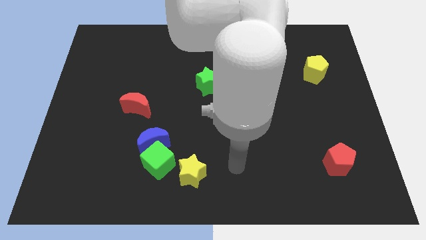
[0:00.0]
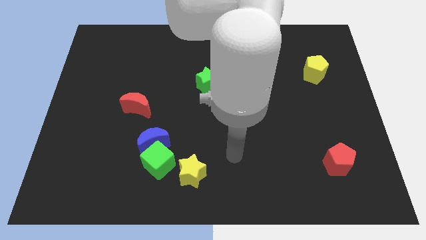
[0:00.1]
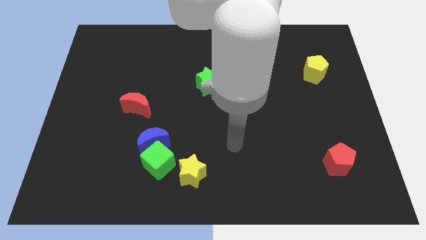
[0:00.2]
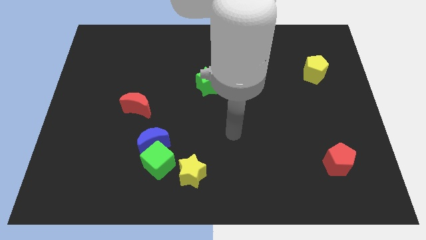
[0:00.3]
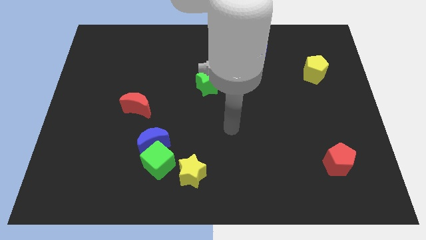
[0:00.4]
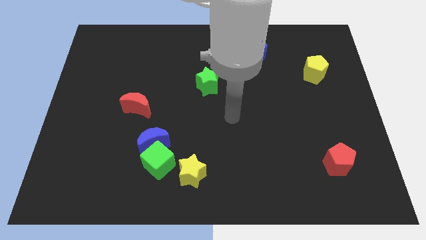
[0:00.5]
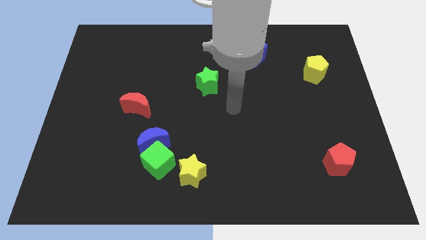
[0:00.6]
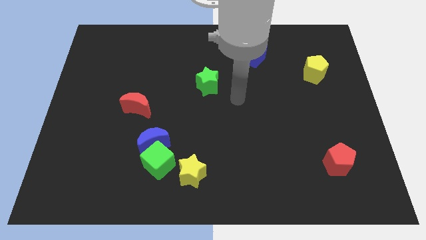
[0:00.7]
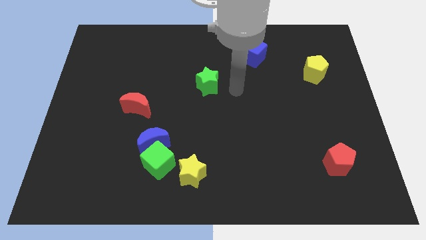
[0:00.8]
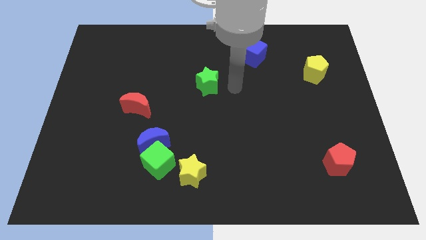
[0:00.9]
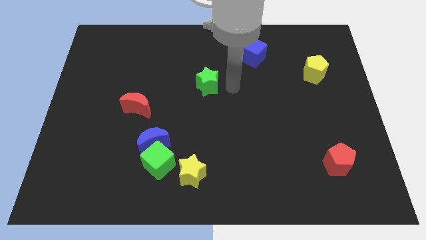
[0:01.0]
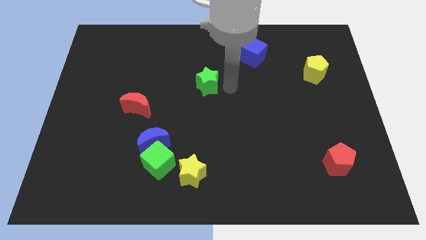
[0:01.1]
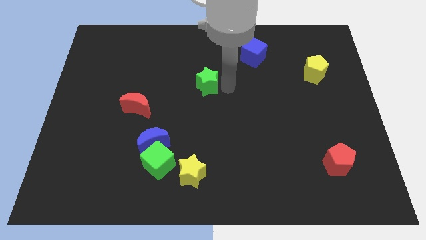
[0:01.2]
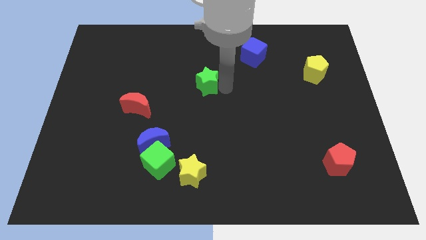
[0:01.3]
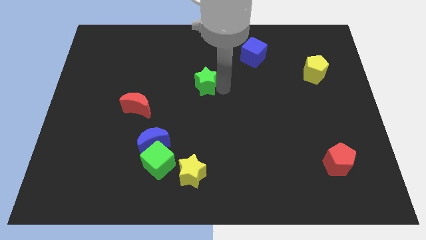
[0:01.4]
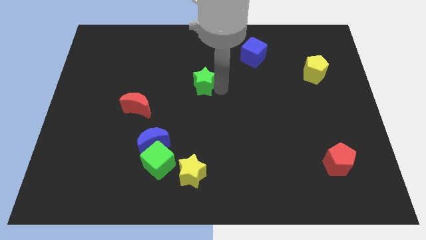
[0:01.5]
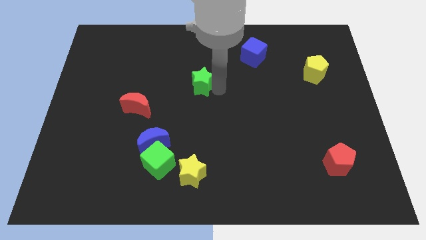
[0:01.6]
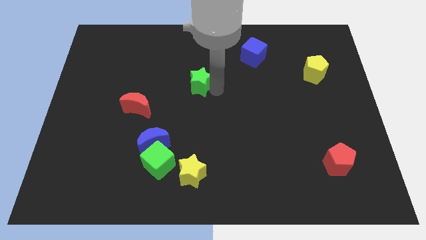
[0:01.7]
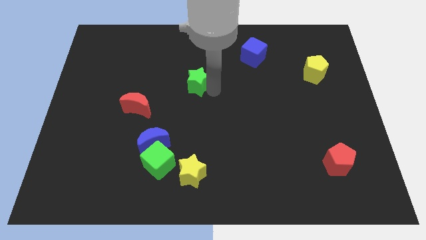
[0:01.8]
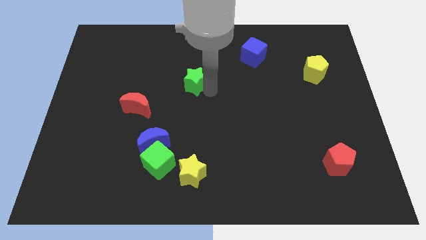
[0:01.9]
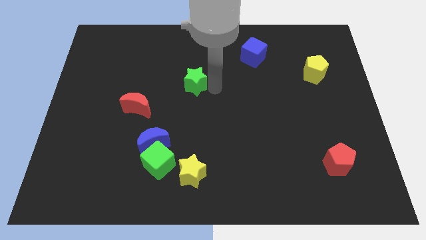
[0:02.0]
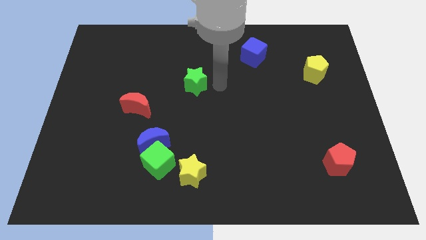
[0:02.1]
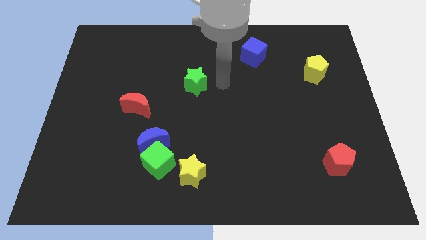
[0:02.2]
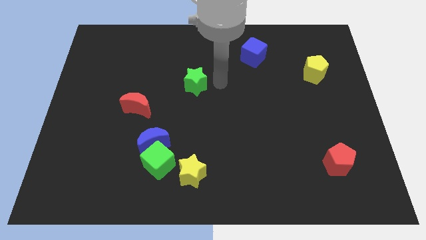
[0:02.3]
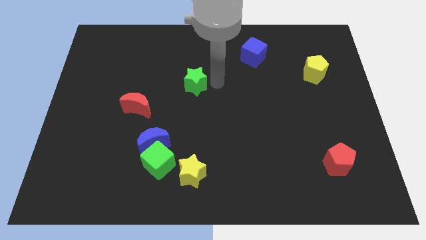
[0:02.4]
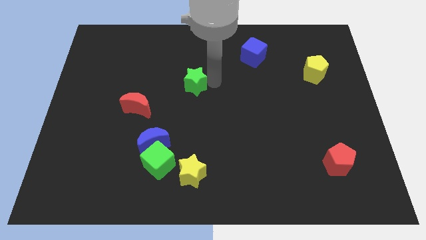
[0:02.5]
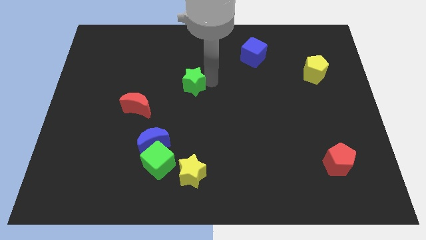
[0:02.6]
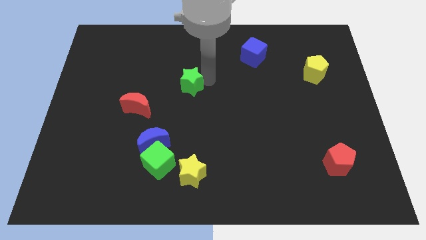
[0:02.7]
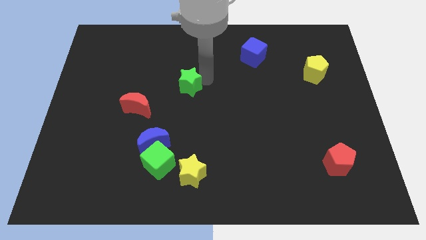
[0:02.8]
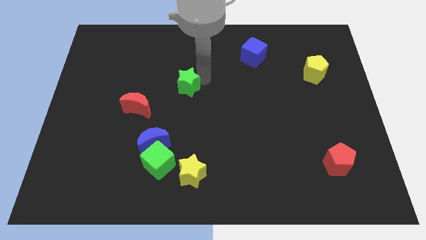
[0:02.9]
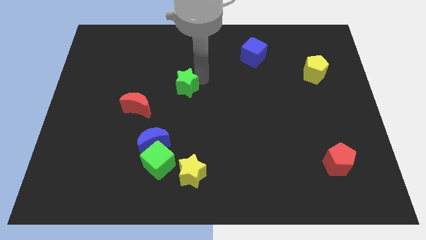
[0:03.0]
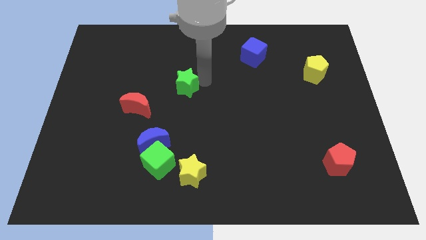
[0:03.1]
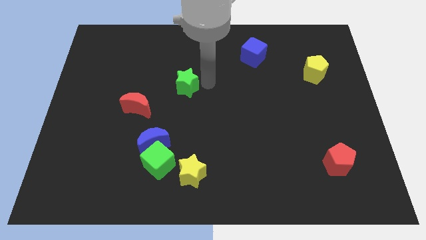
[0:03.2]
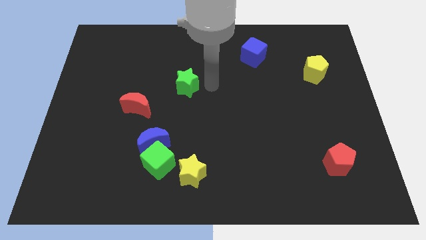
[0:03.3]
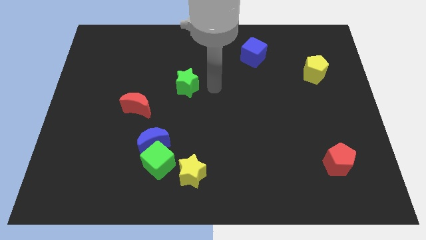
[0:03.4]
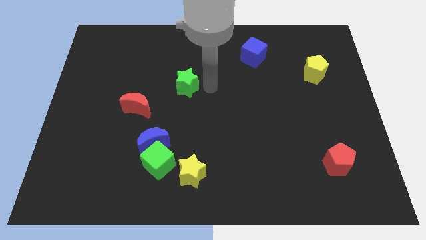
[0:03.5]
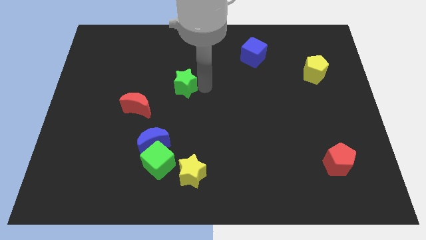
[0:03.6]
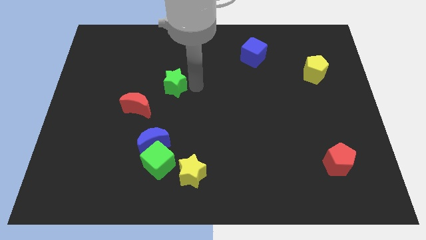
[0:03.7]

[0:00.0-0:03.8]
push the green star to the left a little

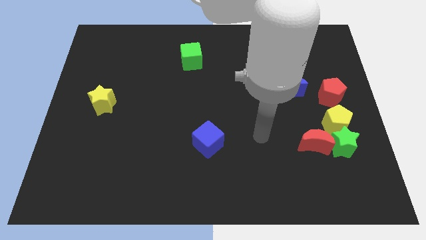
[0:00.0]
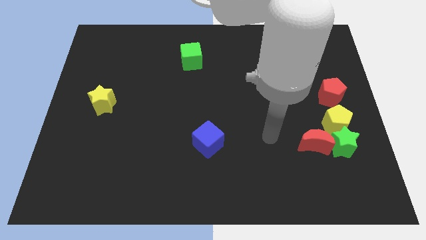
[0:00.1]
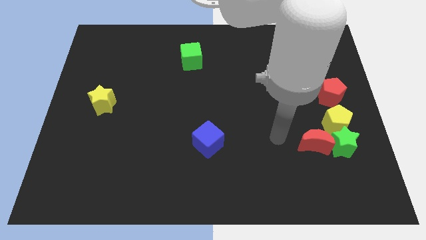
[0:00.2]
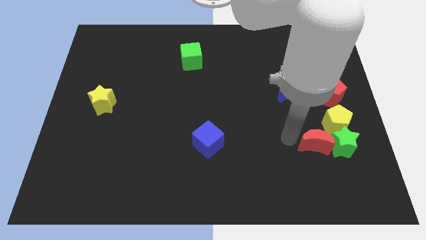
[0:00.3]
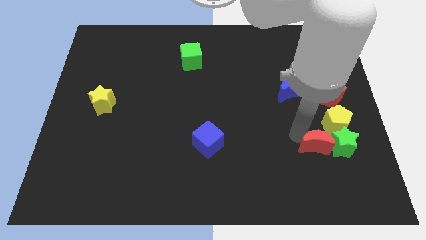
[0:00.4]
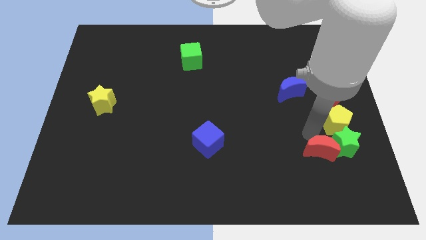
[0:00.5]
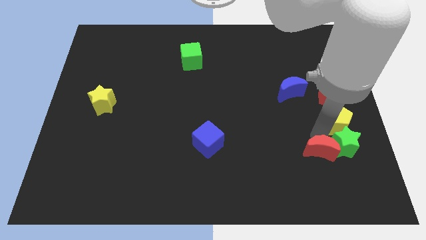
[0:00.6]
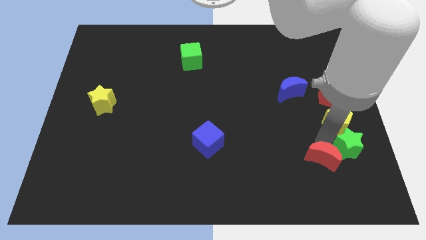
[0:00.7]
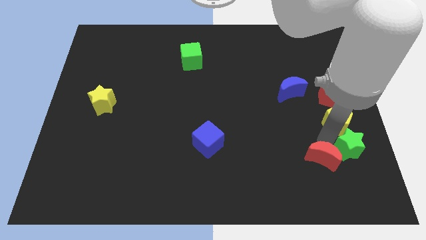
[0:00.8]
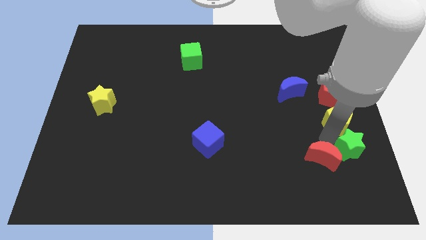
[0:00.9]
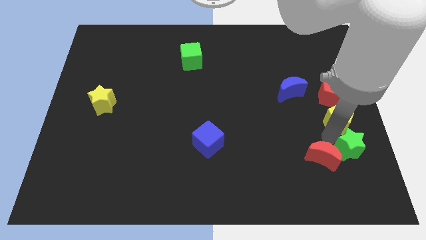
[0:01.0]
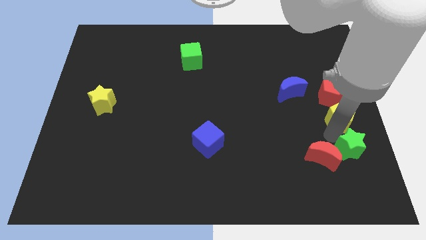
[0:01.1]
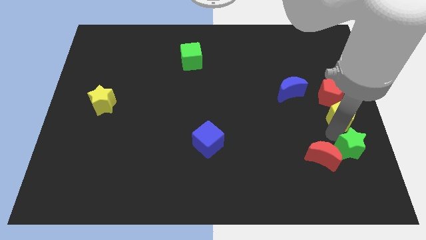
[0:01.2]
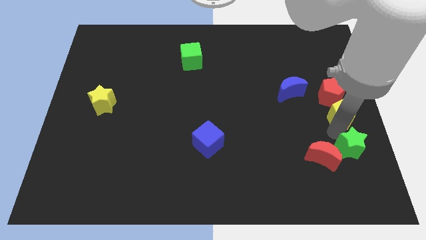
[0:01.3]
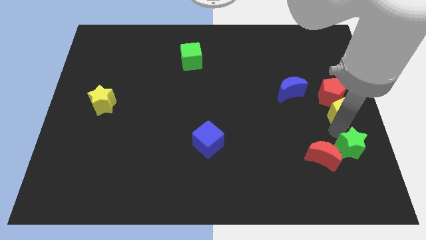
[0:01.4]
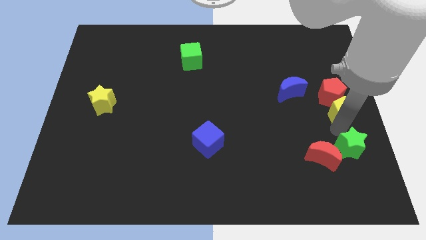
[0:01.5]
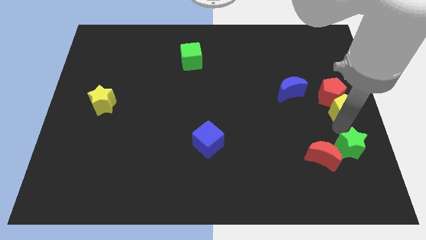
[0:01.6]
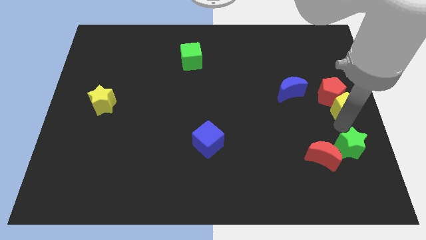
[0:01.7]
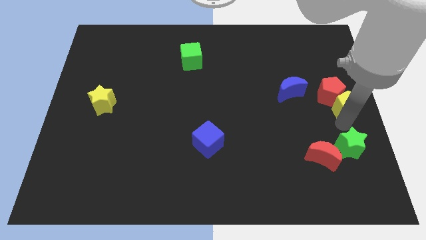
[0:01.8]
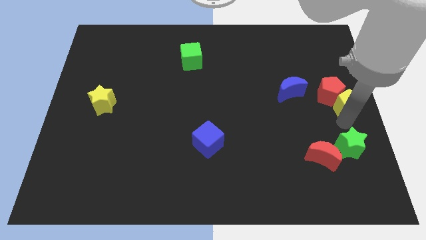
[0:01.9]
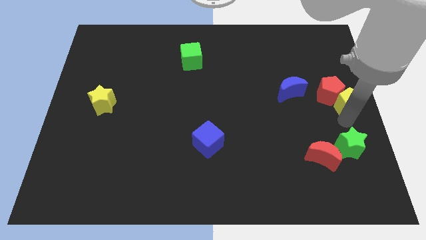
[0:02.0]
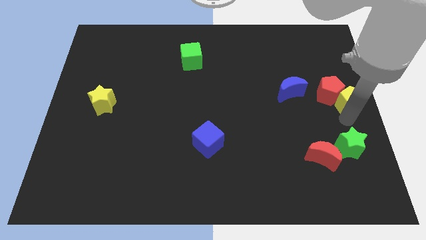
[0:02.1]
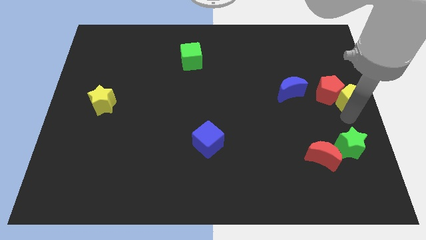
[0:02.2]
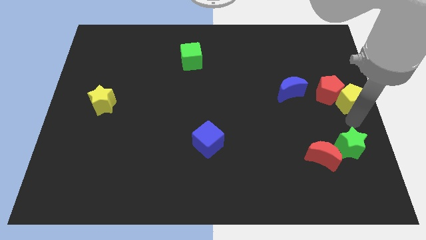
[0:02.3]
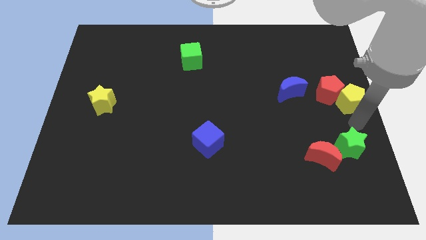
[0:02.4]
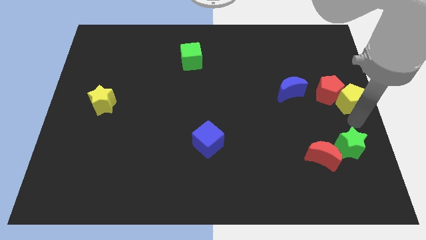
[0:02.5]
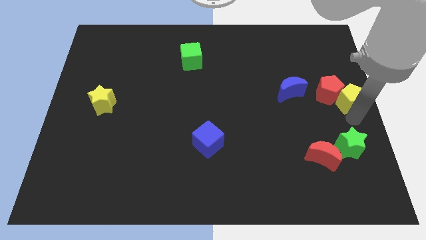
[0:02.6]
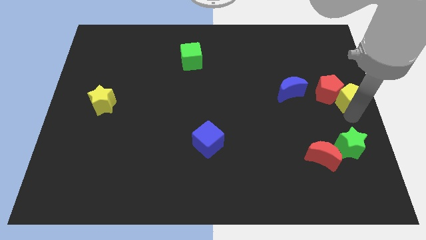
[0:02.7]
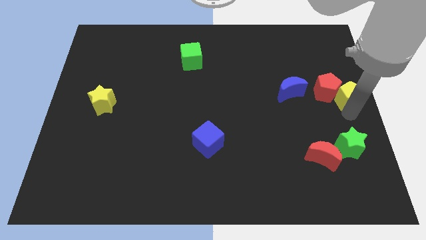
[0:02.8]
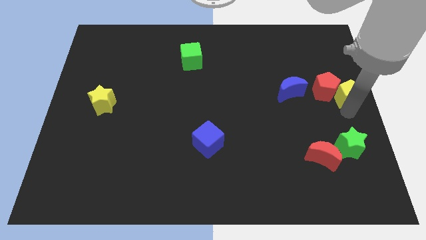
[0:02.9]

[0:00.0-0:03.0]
slide the yellow pentagon up slightly

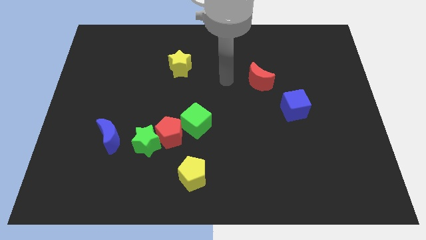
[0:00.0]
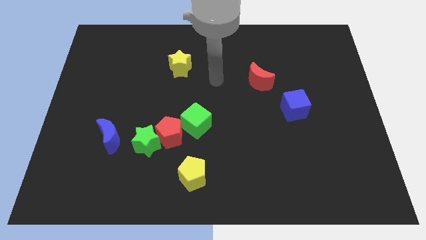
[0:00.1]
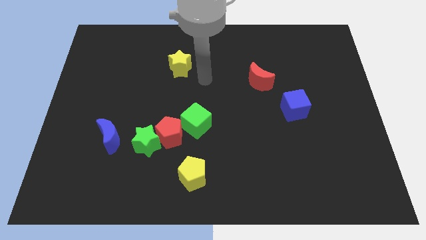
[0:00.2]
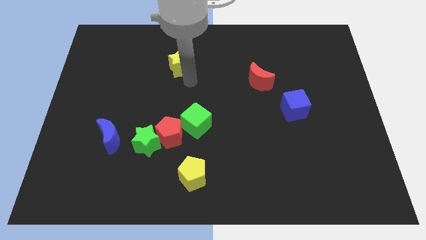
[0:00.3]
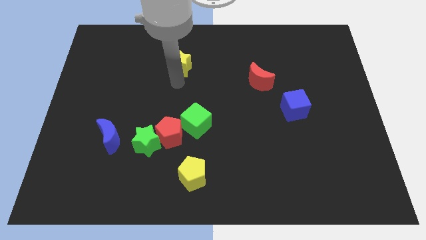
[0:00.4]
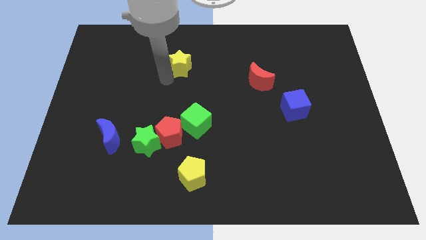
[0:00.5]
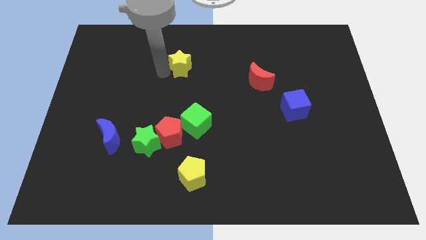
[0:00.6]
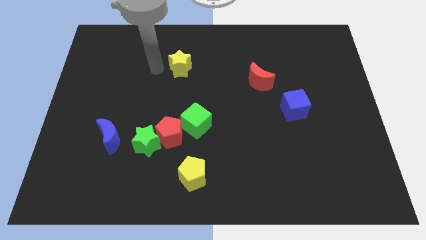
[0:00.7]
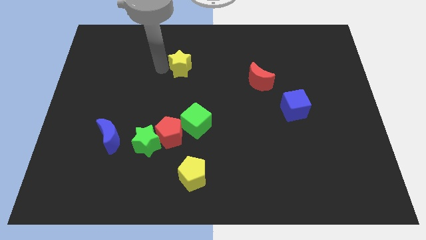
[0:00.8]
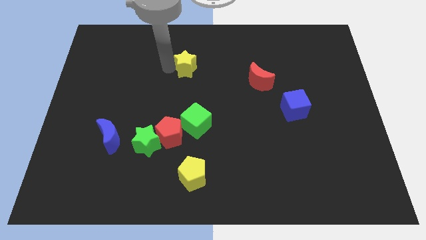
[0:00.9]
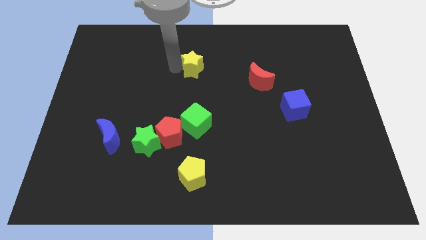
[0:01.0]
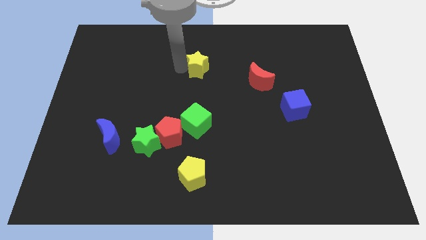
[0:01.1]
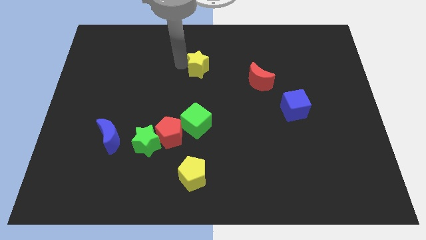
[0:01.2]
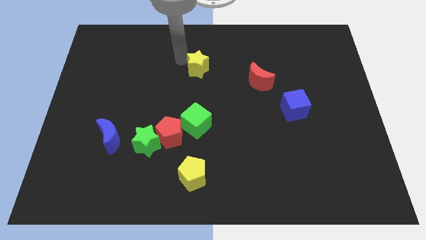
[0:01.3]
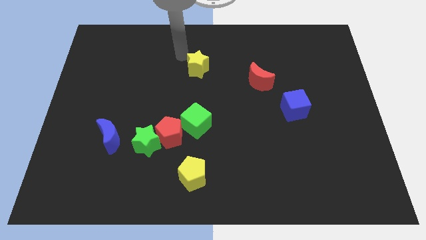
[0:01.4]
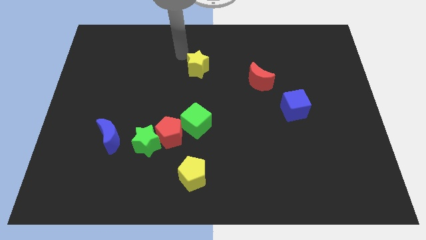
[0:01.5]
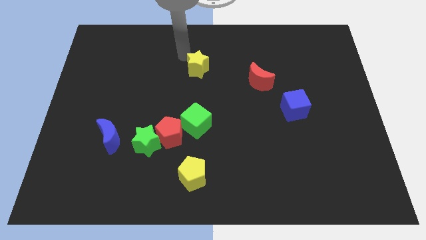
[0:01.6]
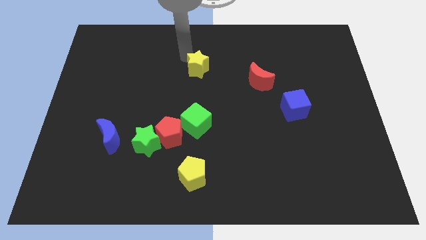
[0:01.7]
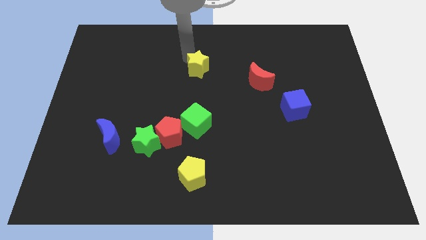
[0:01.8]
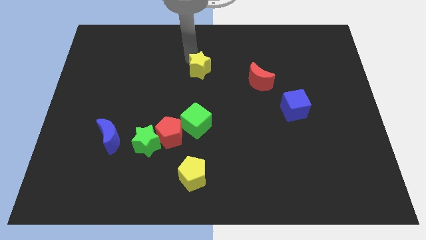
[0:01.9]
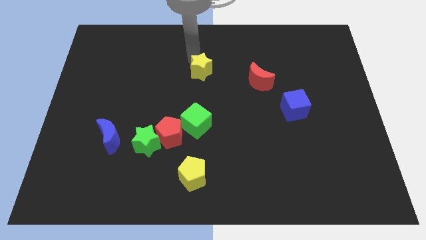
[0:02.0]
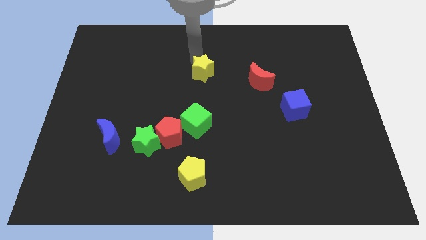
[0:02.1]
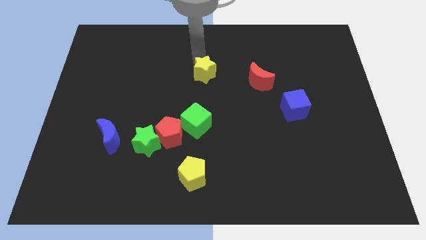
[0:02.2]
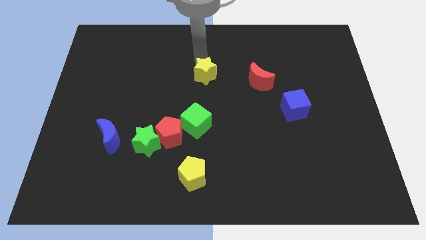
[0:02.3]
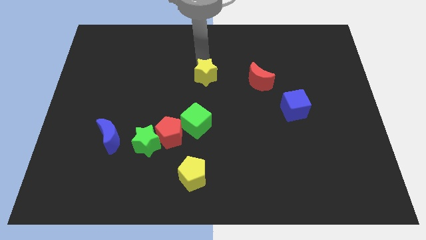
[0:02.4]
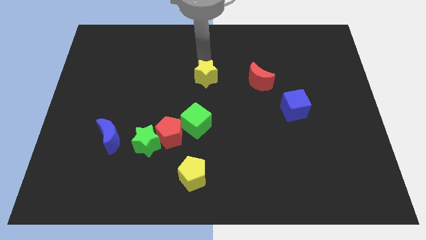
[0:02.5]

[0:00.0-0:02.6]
push the yellow star downwards and then to the right slightly
